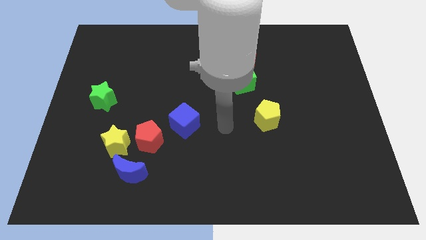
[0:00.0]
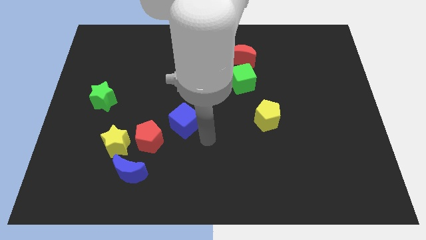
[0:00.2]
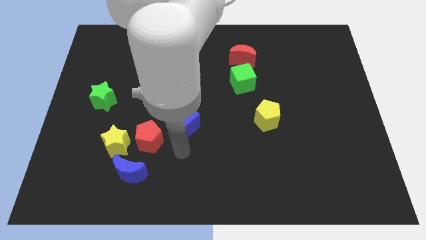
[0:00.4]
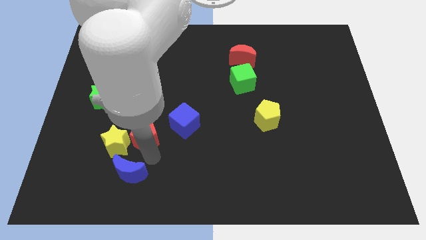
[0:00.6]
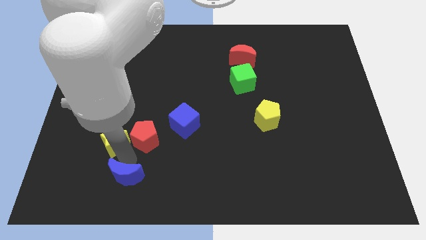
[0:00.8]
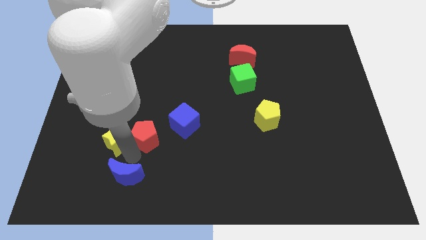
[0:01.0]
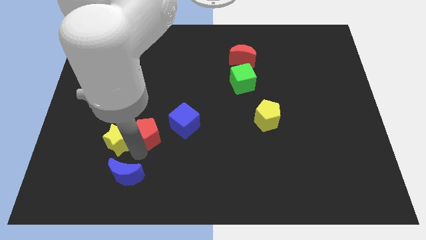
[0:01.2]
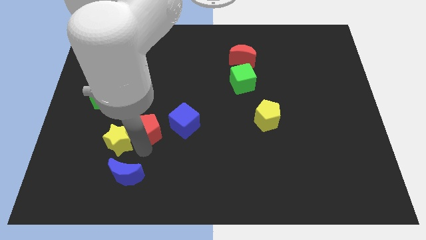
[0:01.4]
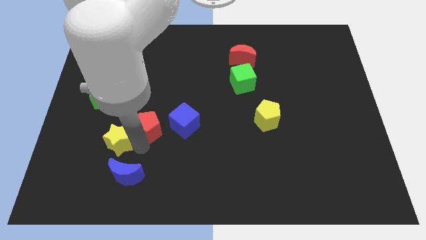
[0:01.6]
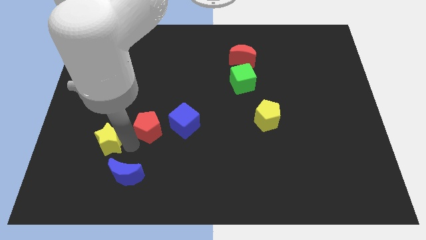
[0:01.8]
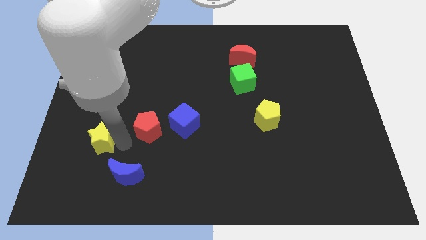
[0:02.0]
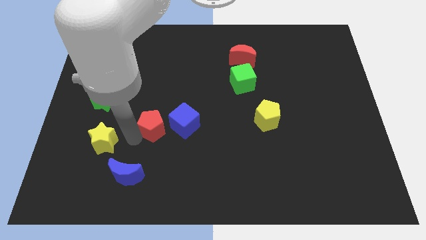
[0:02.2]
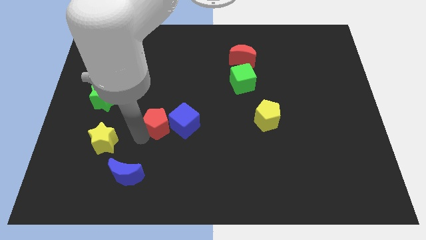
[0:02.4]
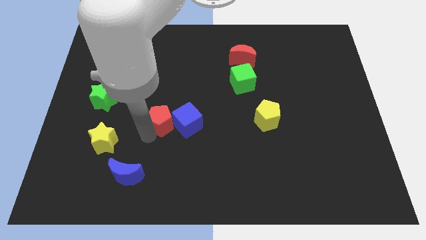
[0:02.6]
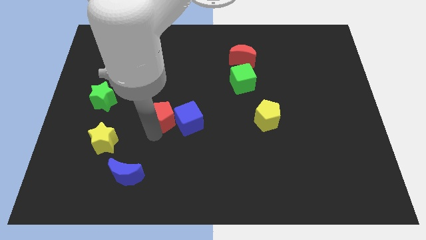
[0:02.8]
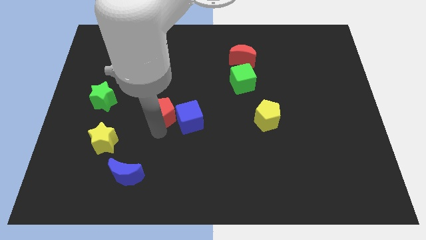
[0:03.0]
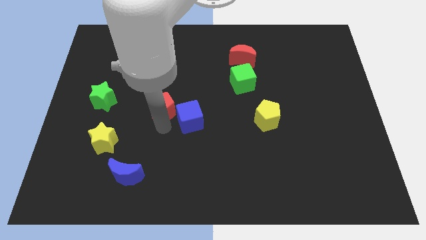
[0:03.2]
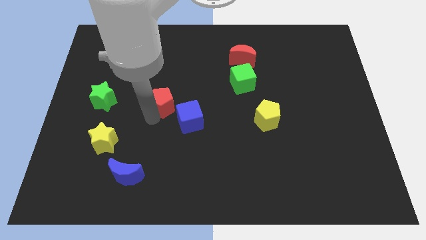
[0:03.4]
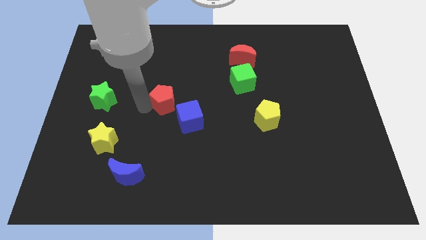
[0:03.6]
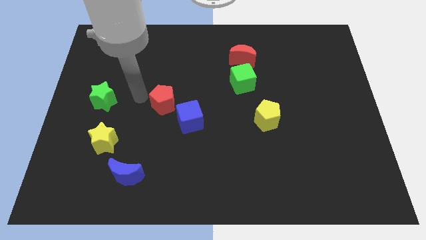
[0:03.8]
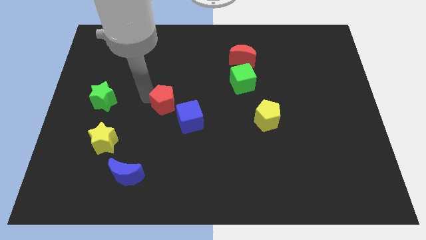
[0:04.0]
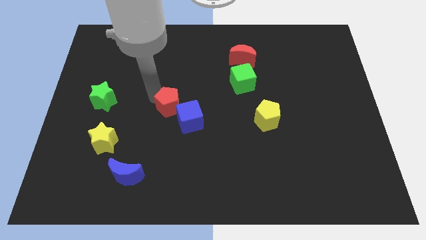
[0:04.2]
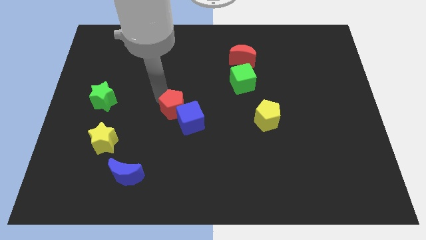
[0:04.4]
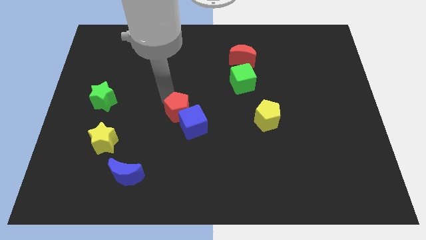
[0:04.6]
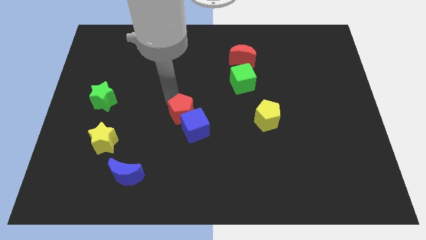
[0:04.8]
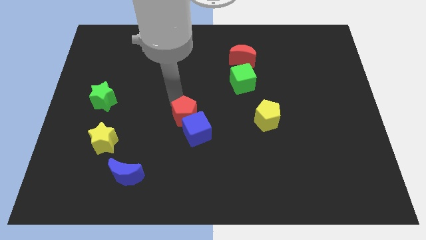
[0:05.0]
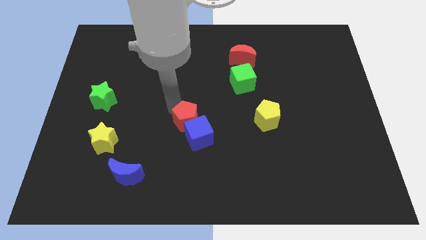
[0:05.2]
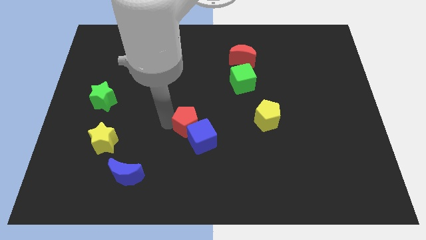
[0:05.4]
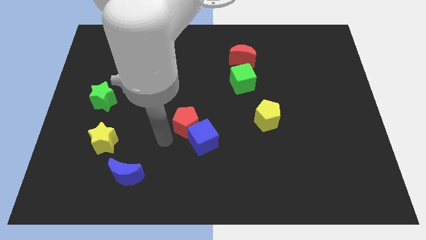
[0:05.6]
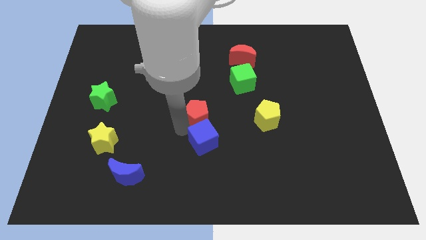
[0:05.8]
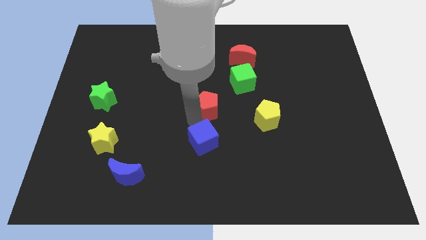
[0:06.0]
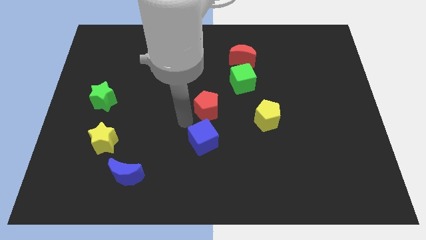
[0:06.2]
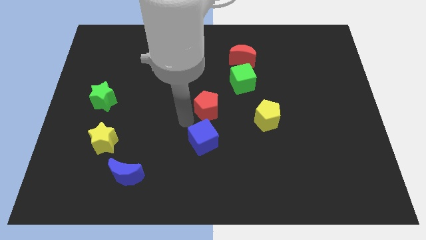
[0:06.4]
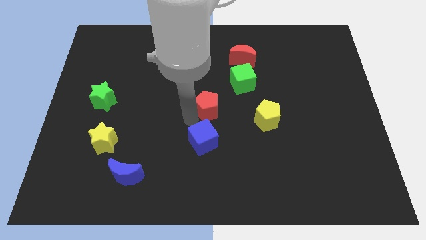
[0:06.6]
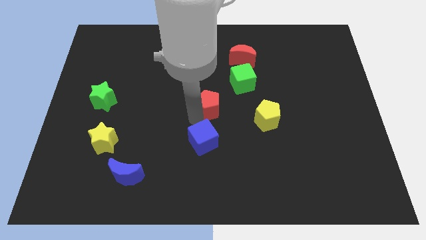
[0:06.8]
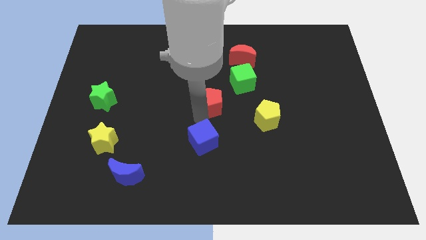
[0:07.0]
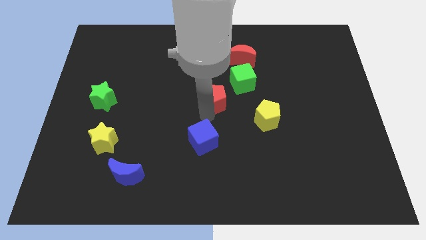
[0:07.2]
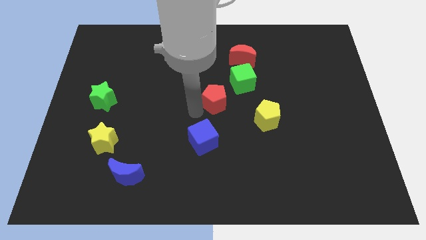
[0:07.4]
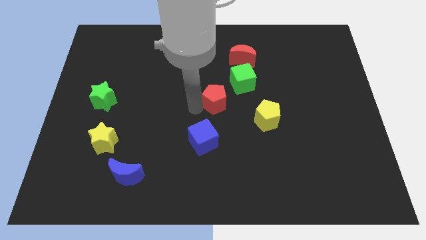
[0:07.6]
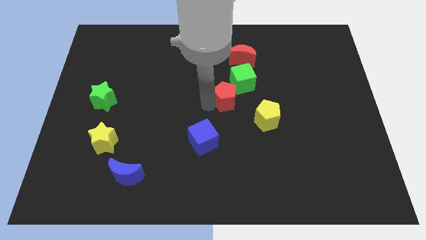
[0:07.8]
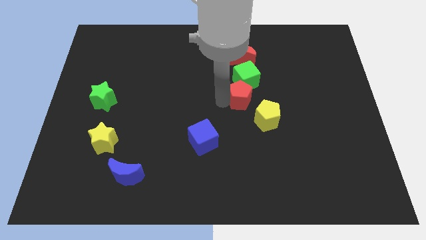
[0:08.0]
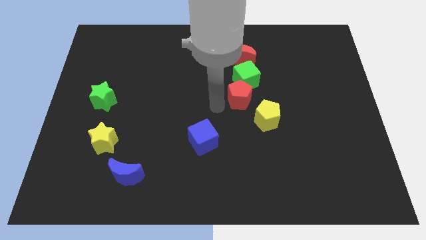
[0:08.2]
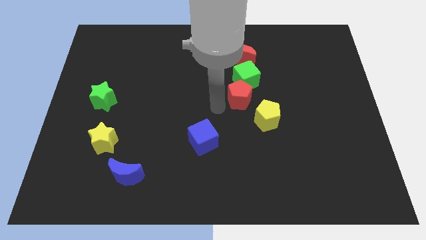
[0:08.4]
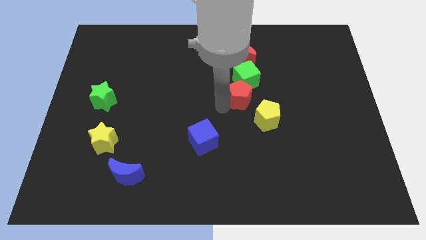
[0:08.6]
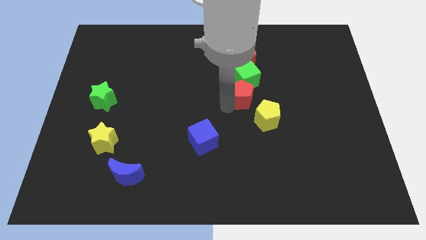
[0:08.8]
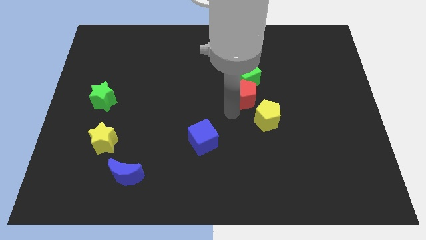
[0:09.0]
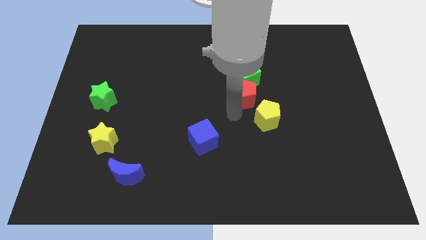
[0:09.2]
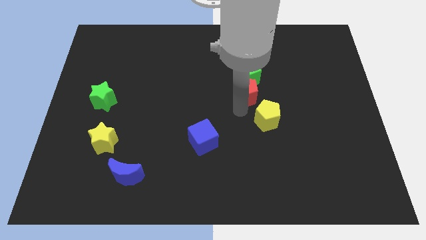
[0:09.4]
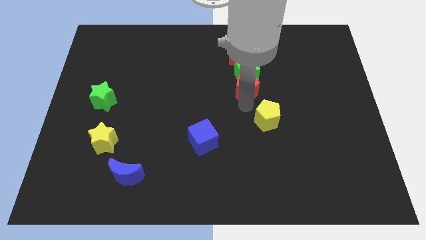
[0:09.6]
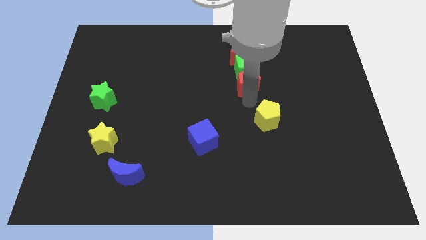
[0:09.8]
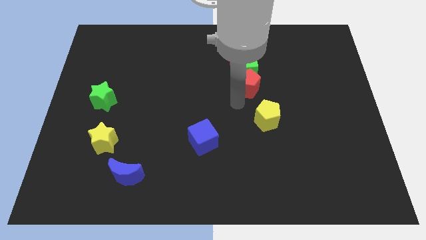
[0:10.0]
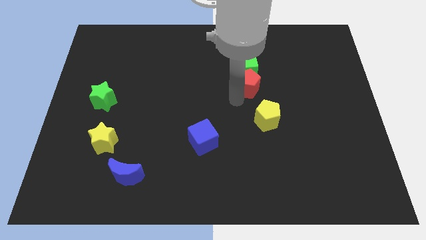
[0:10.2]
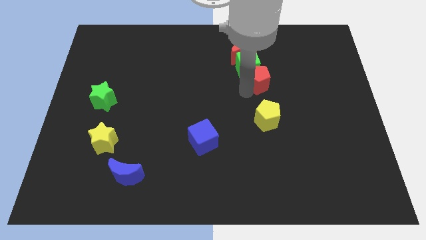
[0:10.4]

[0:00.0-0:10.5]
slide the red pentagon diagonally down and to the right of the red moon

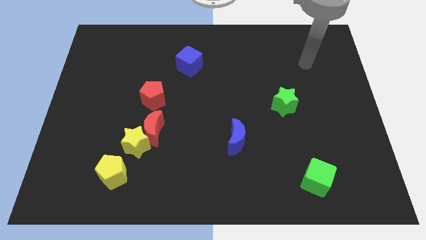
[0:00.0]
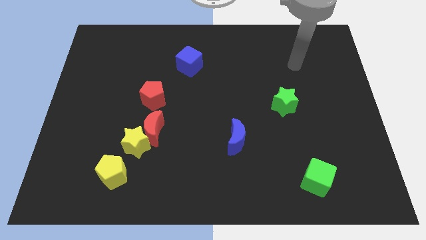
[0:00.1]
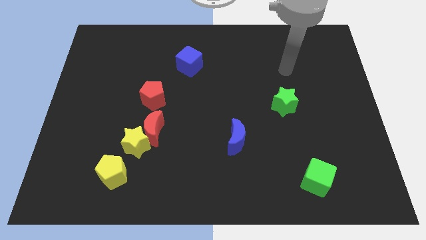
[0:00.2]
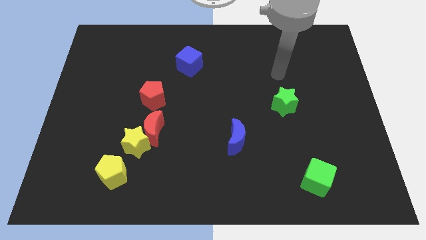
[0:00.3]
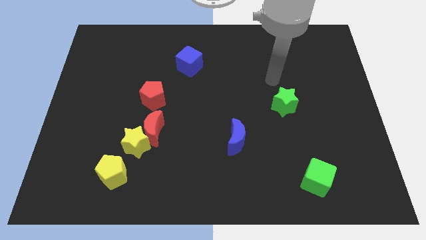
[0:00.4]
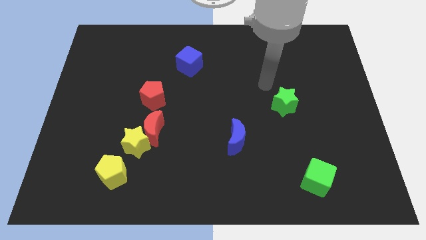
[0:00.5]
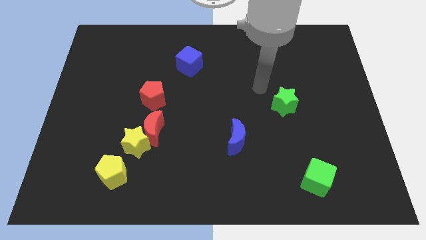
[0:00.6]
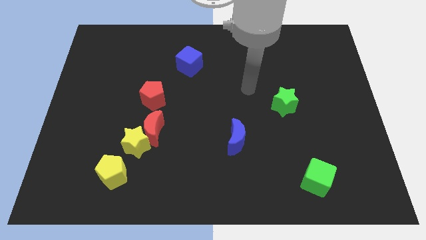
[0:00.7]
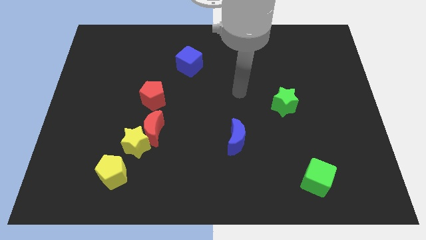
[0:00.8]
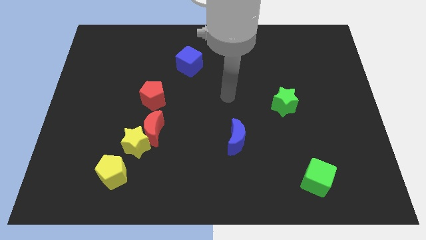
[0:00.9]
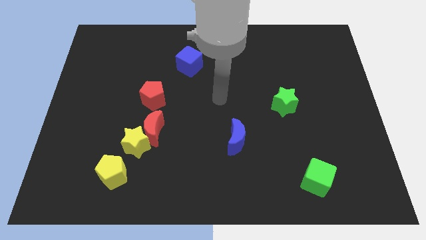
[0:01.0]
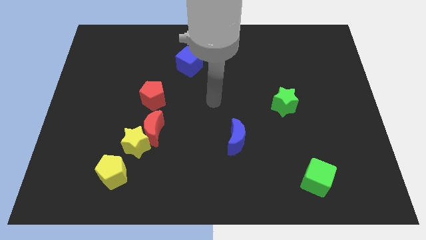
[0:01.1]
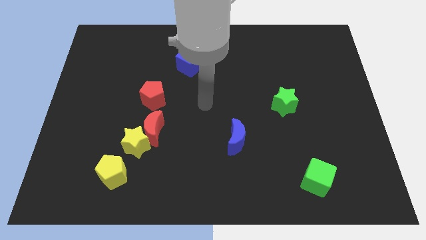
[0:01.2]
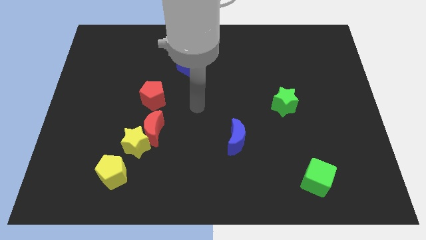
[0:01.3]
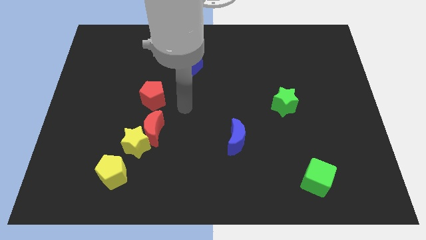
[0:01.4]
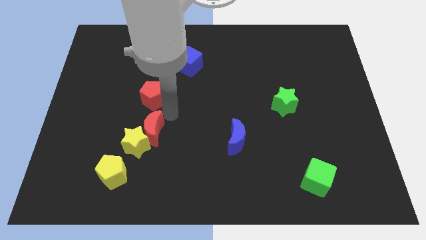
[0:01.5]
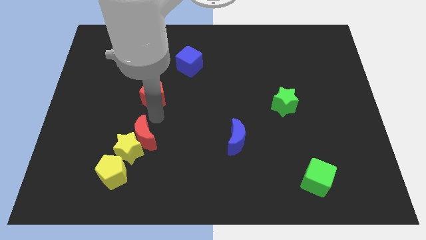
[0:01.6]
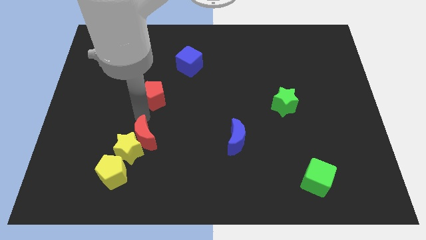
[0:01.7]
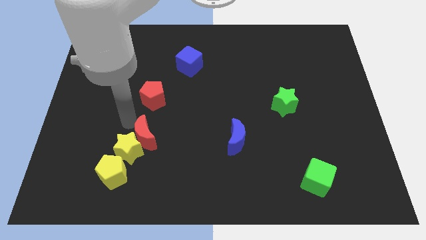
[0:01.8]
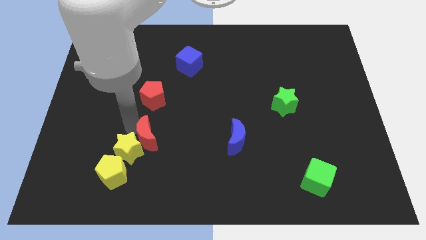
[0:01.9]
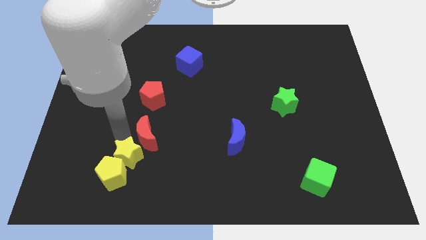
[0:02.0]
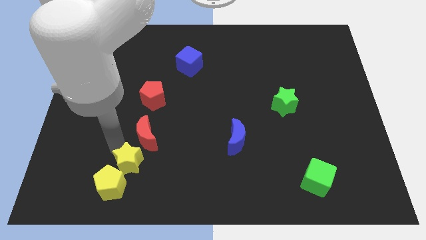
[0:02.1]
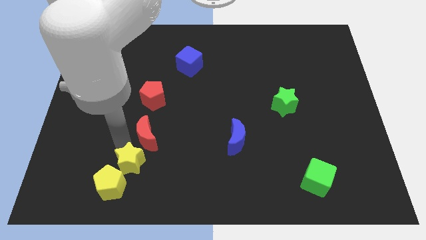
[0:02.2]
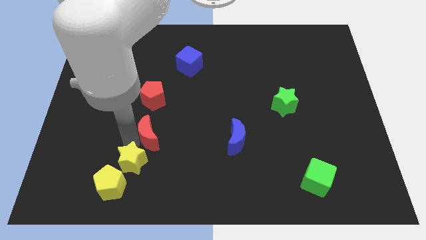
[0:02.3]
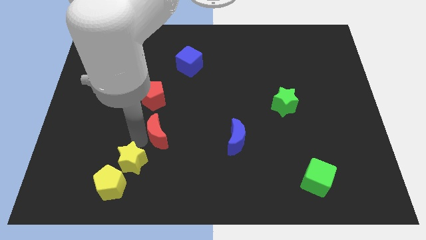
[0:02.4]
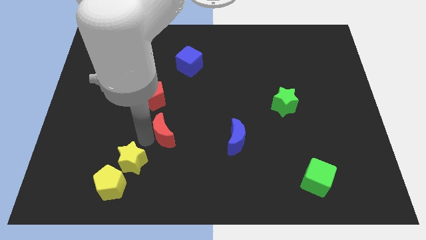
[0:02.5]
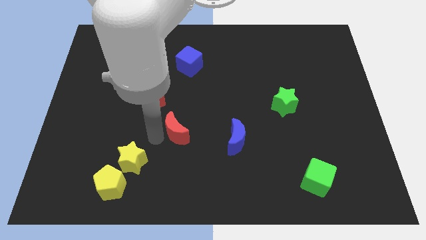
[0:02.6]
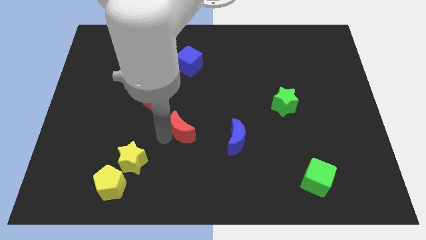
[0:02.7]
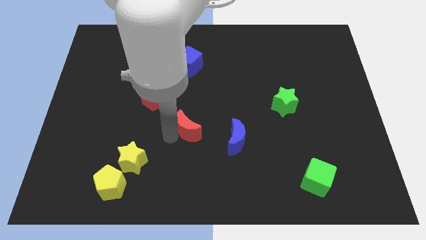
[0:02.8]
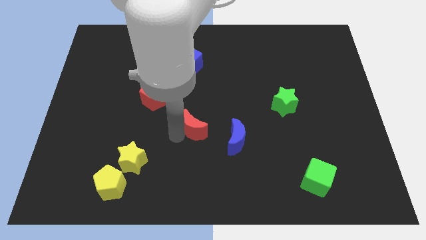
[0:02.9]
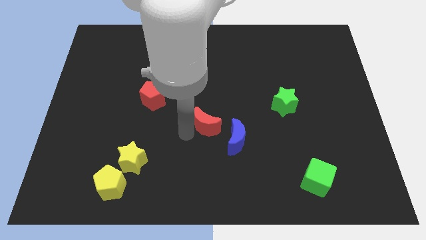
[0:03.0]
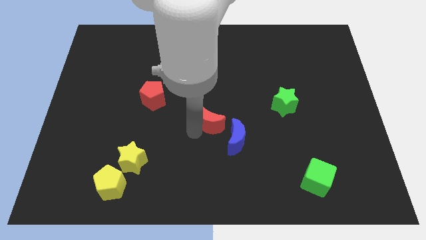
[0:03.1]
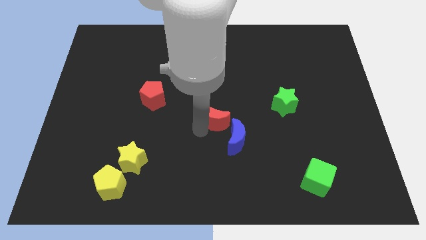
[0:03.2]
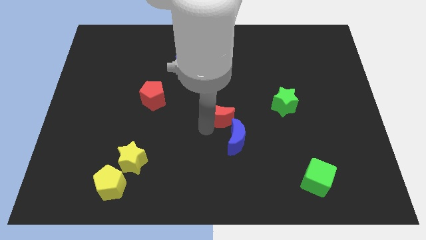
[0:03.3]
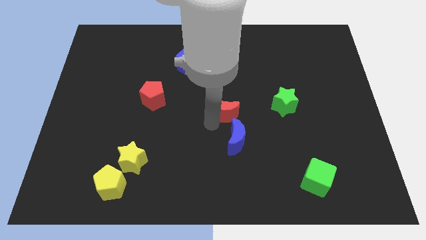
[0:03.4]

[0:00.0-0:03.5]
push the red moon to the left of the green star
